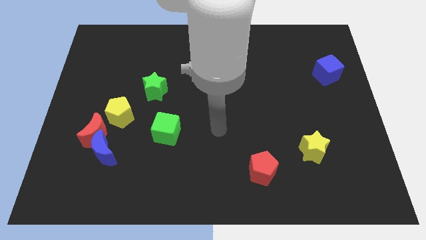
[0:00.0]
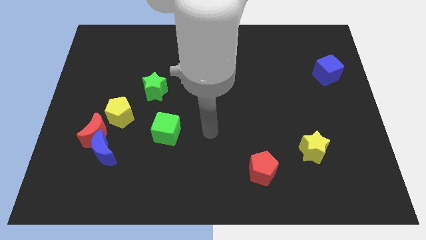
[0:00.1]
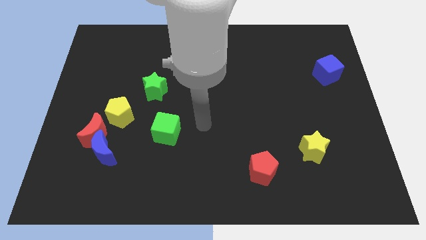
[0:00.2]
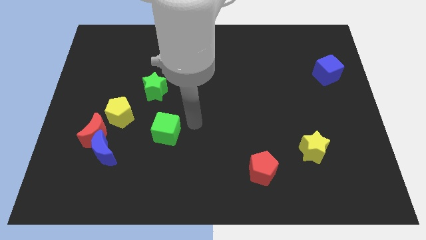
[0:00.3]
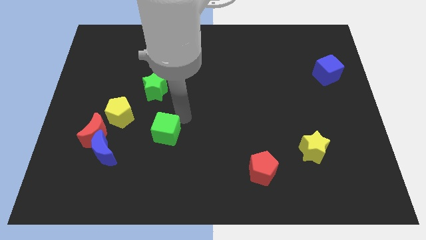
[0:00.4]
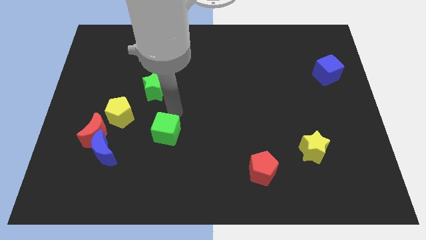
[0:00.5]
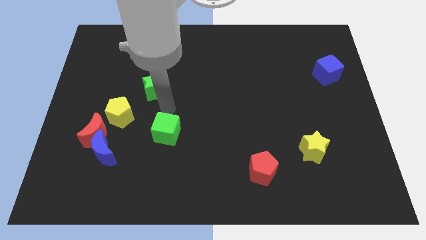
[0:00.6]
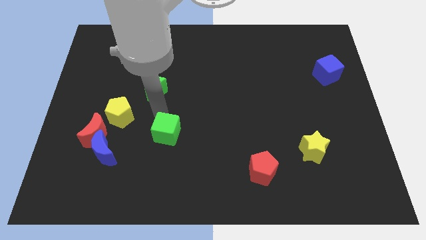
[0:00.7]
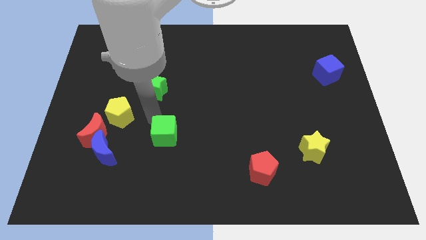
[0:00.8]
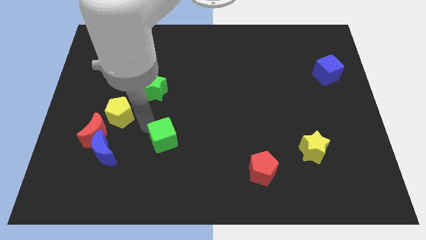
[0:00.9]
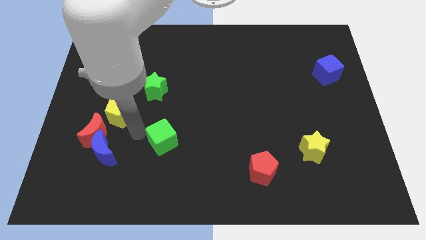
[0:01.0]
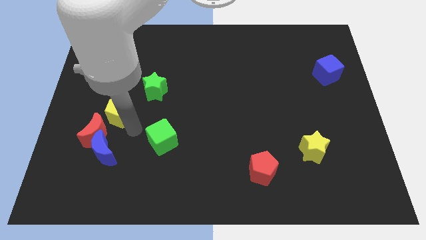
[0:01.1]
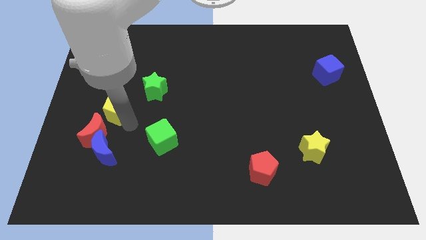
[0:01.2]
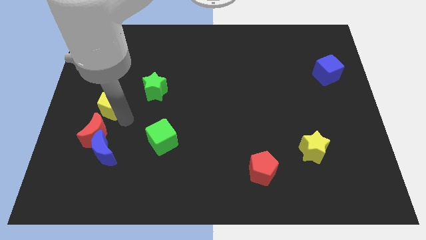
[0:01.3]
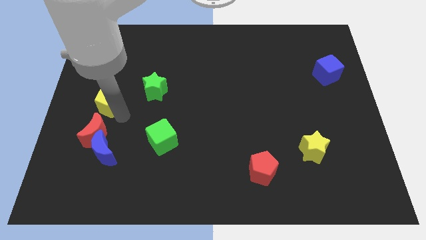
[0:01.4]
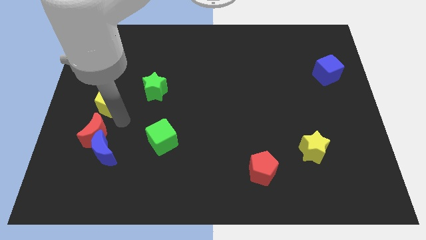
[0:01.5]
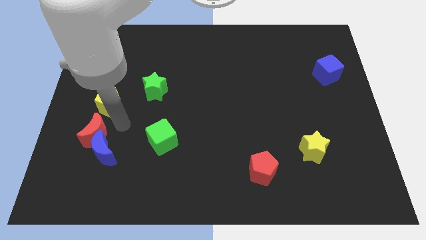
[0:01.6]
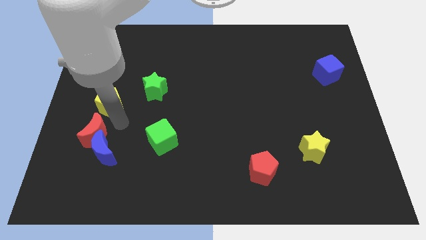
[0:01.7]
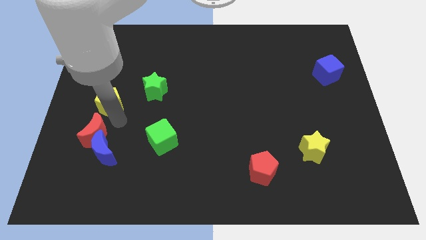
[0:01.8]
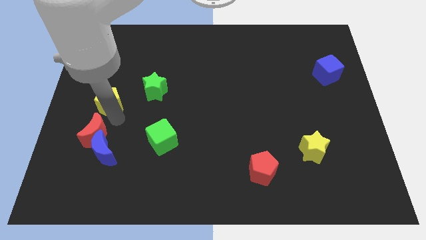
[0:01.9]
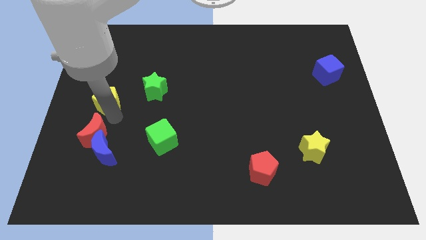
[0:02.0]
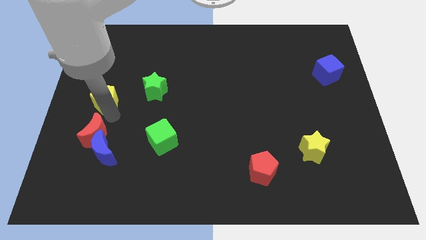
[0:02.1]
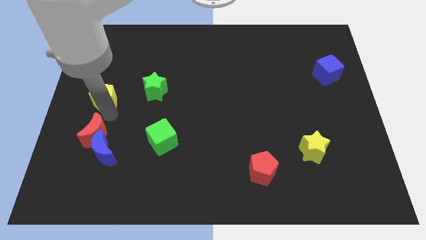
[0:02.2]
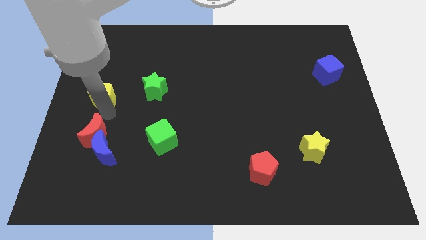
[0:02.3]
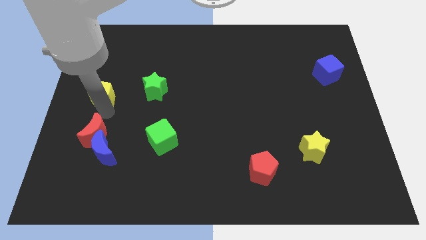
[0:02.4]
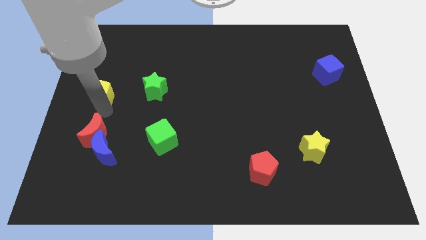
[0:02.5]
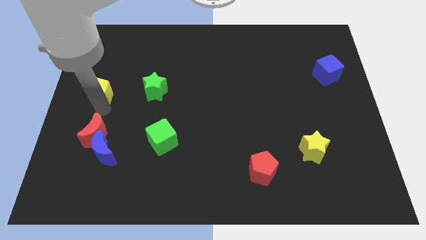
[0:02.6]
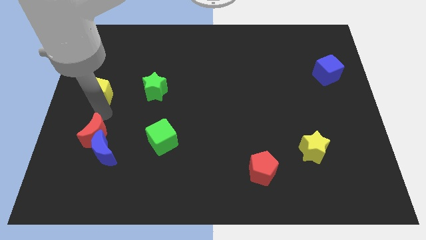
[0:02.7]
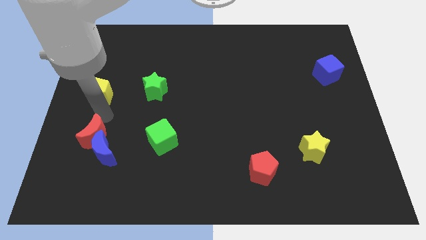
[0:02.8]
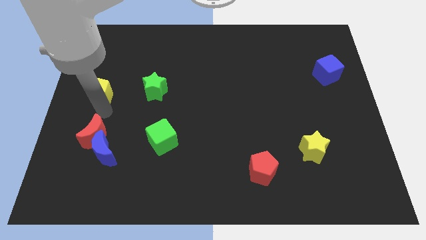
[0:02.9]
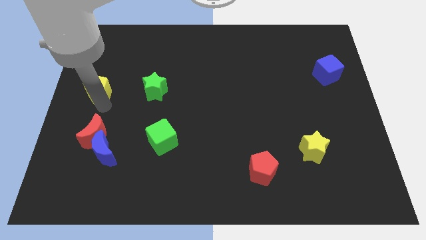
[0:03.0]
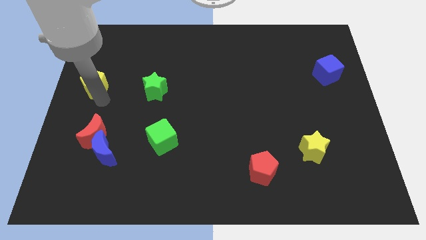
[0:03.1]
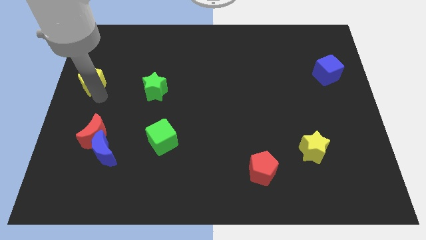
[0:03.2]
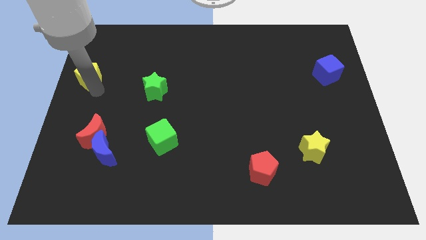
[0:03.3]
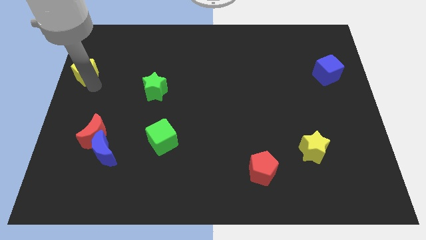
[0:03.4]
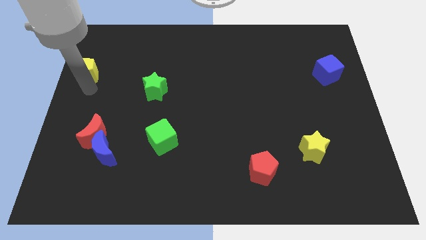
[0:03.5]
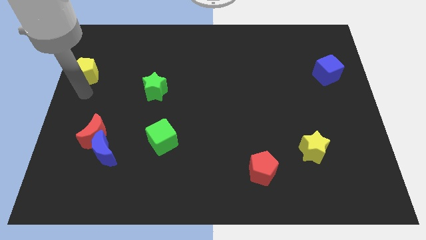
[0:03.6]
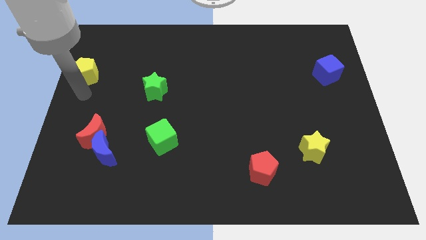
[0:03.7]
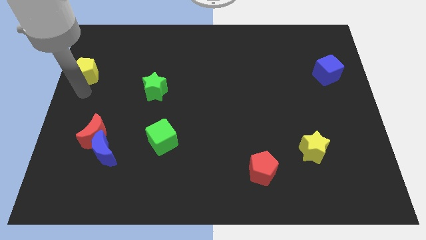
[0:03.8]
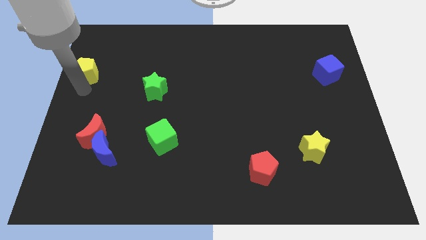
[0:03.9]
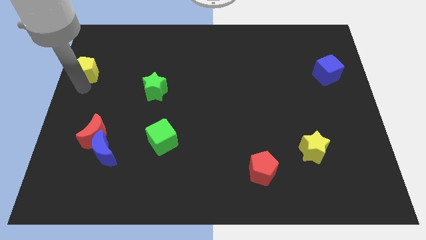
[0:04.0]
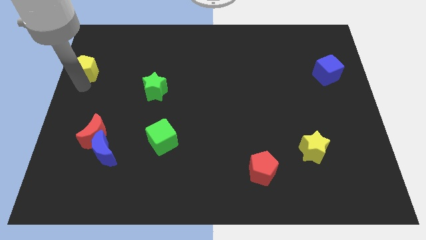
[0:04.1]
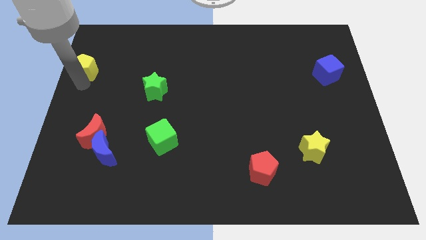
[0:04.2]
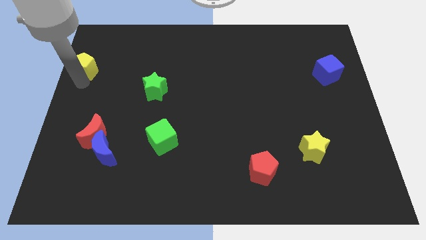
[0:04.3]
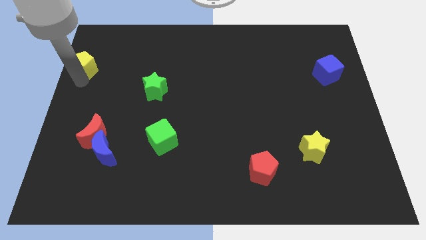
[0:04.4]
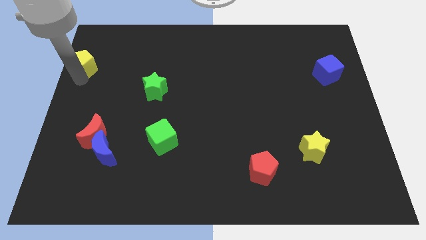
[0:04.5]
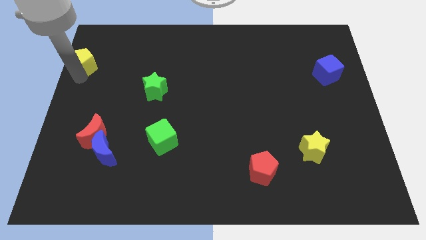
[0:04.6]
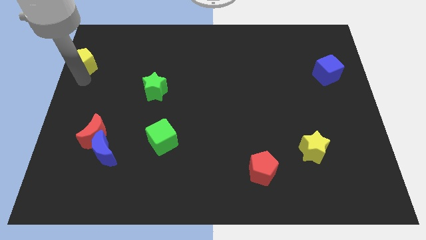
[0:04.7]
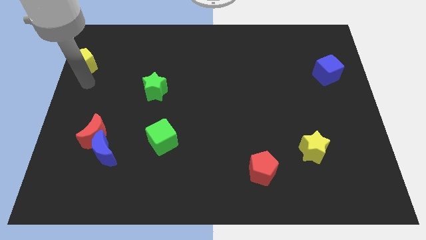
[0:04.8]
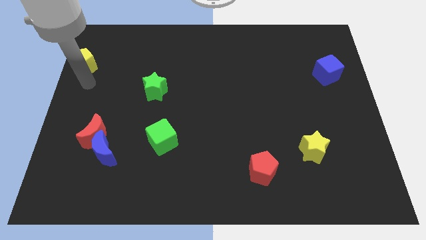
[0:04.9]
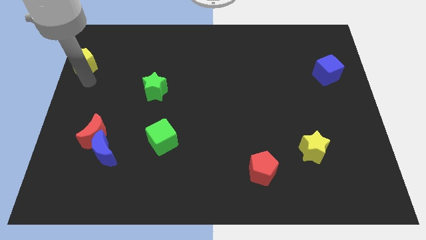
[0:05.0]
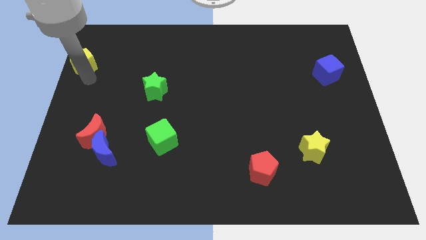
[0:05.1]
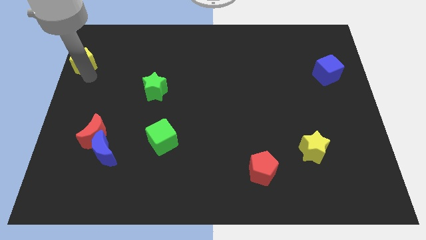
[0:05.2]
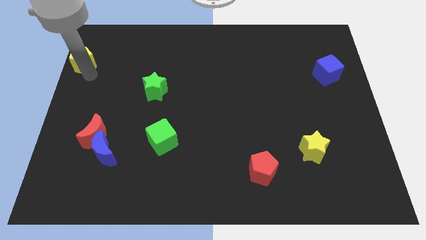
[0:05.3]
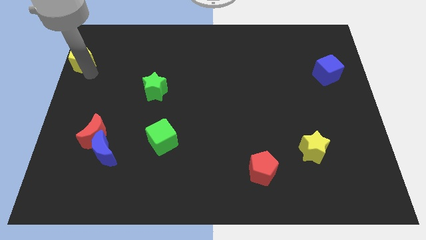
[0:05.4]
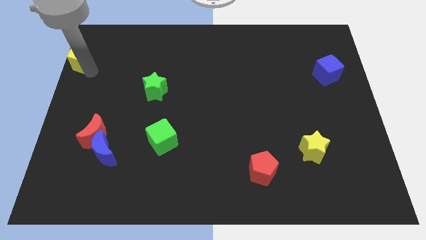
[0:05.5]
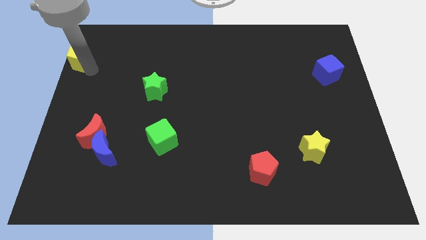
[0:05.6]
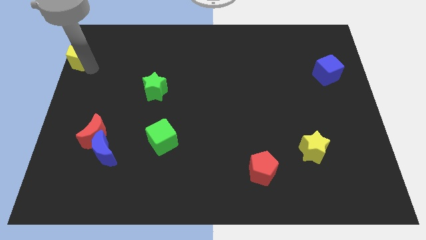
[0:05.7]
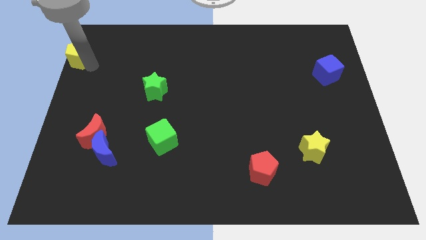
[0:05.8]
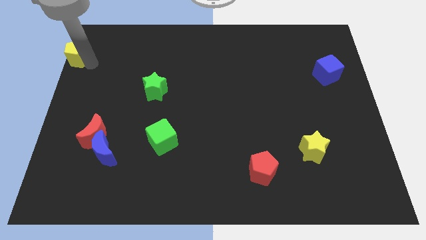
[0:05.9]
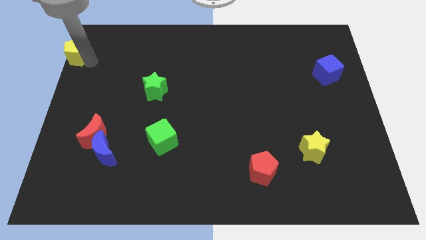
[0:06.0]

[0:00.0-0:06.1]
move the yellow pentagon to the top left

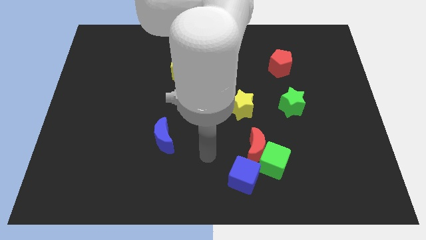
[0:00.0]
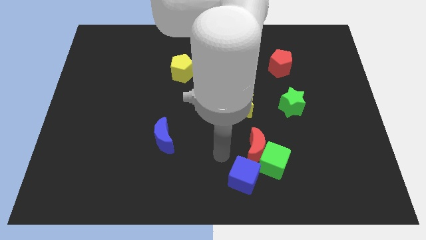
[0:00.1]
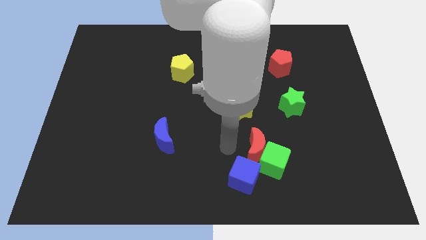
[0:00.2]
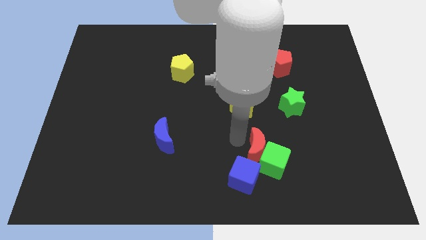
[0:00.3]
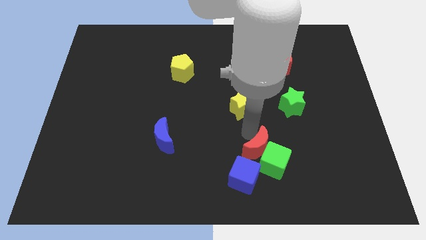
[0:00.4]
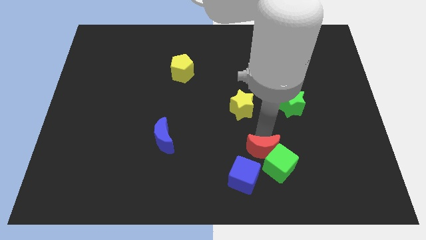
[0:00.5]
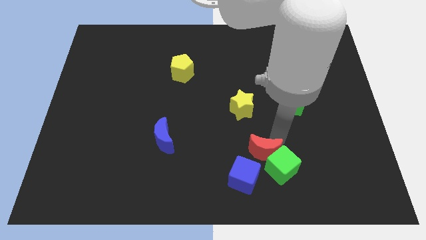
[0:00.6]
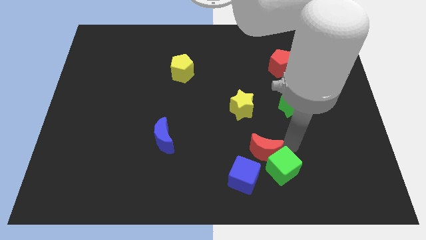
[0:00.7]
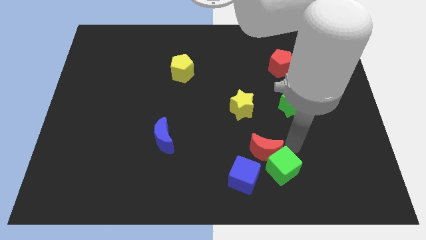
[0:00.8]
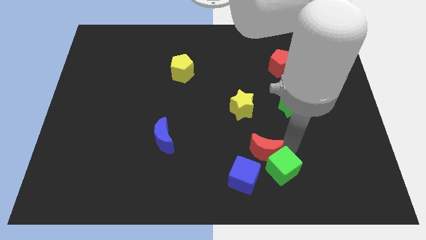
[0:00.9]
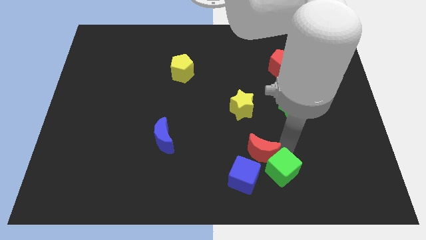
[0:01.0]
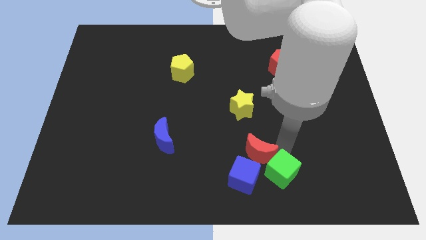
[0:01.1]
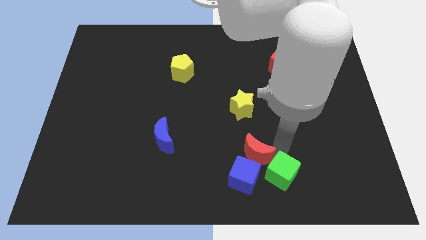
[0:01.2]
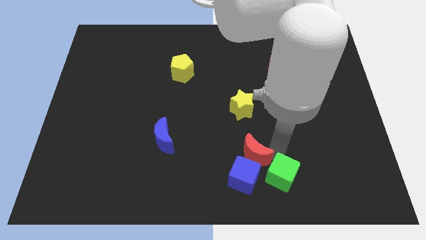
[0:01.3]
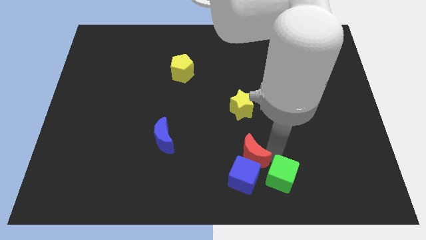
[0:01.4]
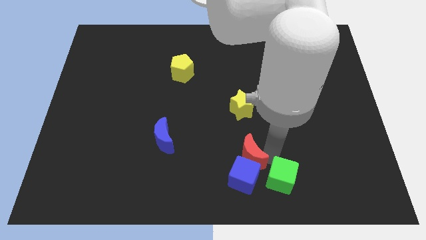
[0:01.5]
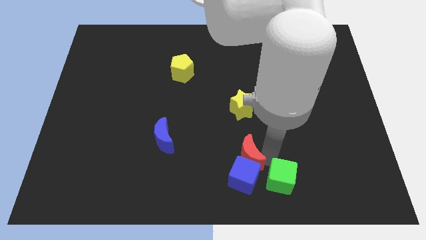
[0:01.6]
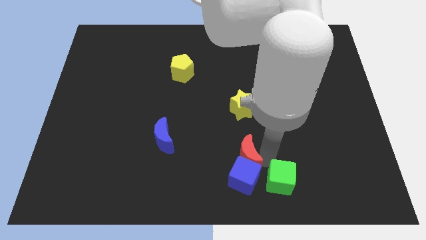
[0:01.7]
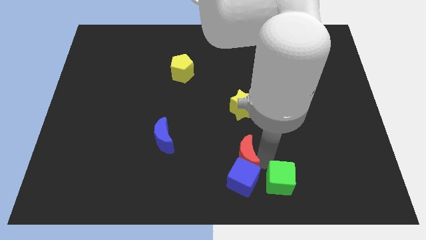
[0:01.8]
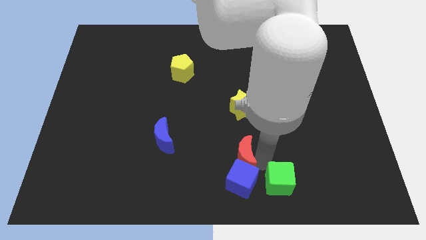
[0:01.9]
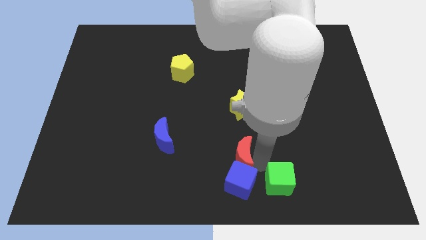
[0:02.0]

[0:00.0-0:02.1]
put the red moon to the bottom
